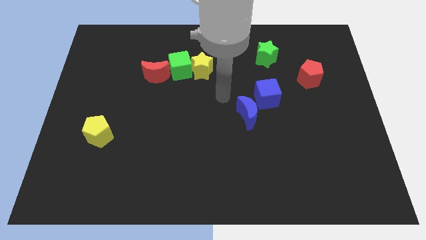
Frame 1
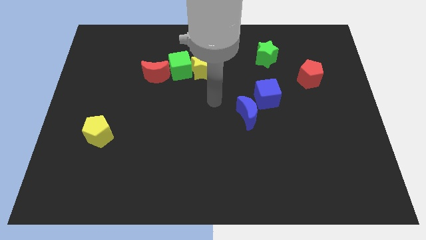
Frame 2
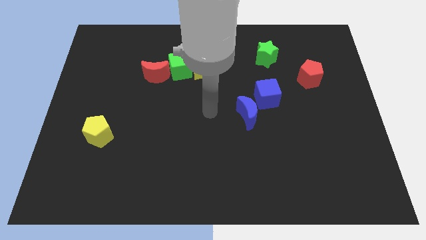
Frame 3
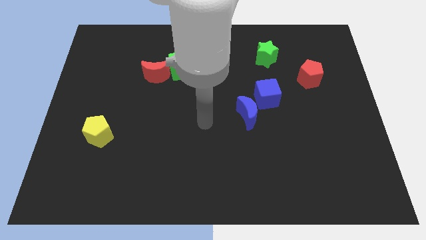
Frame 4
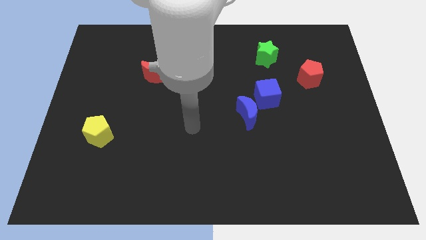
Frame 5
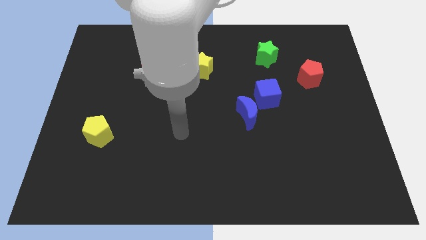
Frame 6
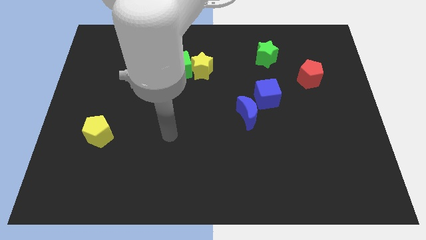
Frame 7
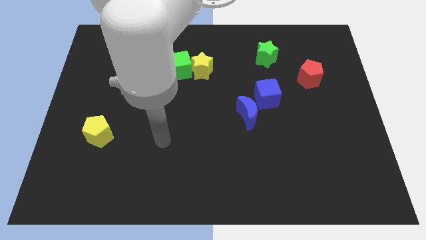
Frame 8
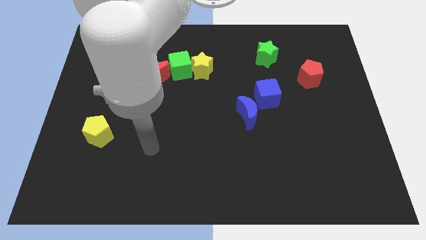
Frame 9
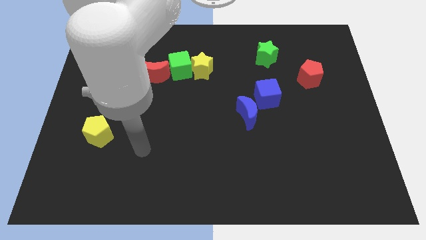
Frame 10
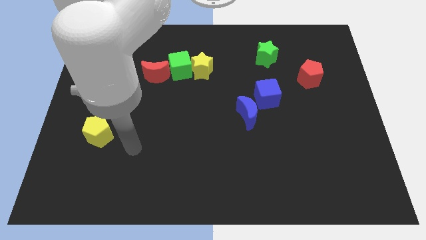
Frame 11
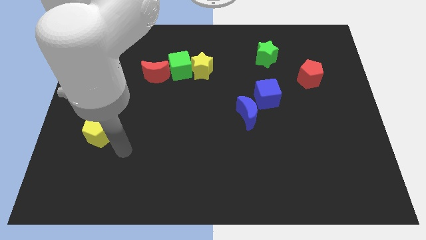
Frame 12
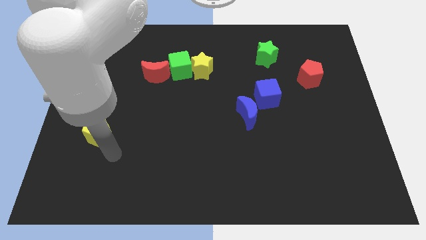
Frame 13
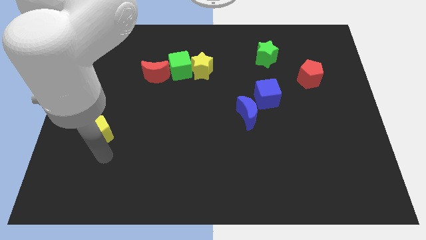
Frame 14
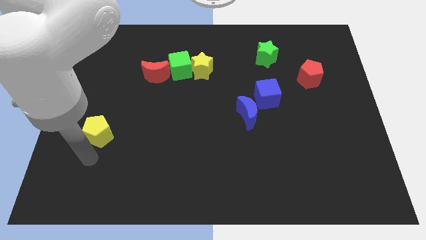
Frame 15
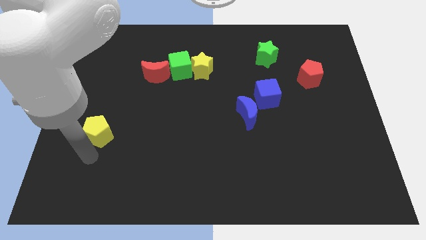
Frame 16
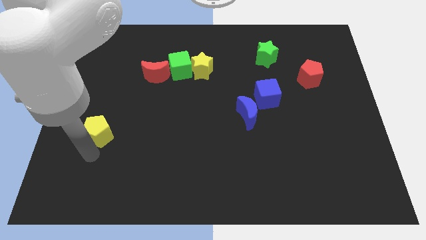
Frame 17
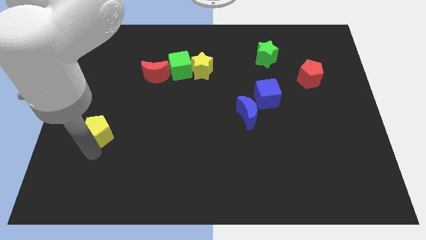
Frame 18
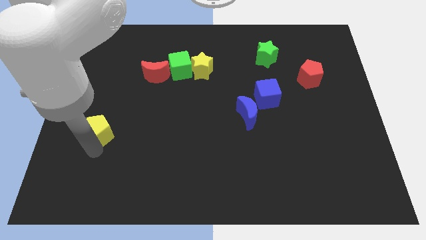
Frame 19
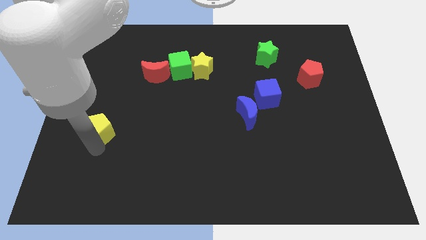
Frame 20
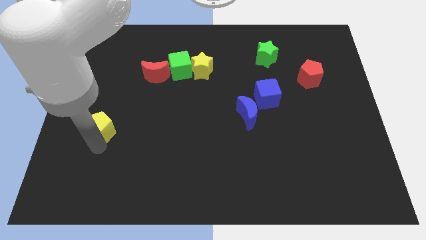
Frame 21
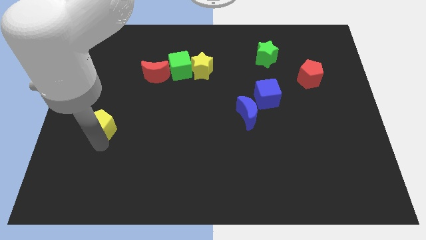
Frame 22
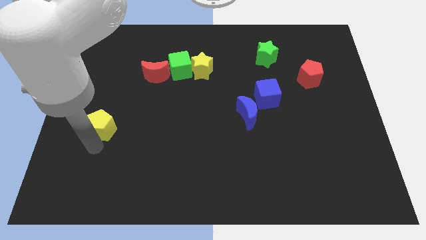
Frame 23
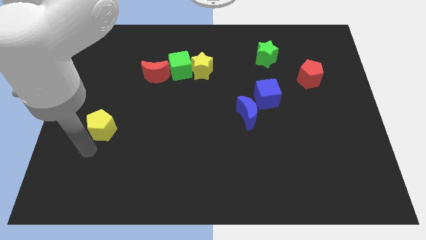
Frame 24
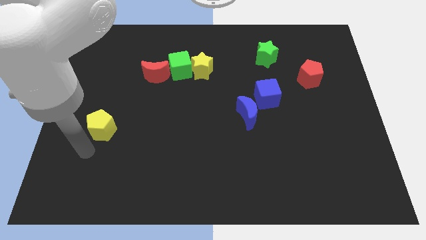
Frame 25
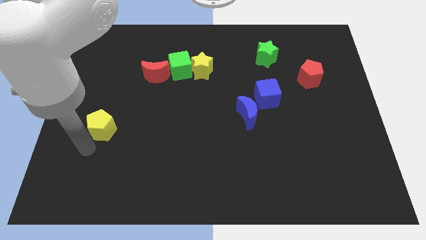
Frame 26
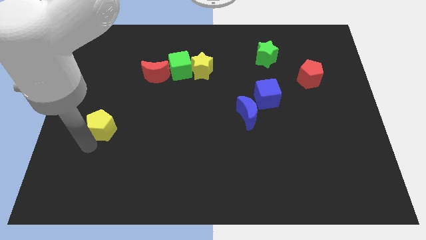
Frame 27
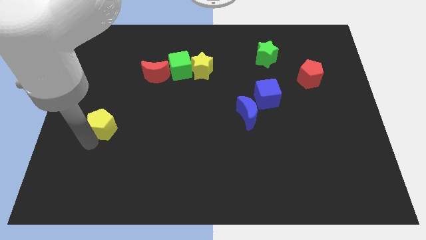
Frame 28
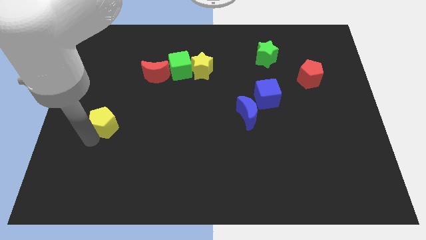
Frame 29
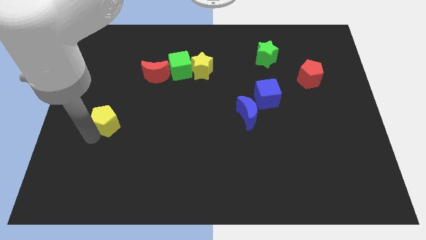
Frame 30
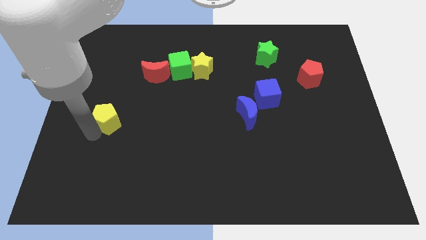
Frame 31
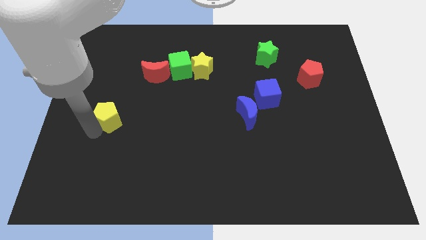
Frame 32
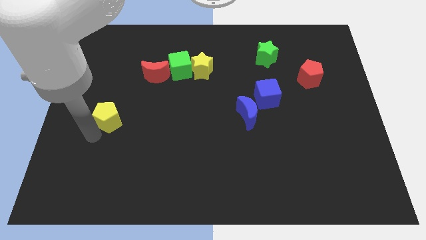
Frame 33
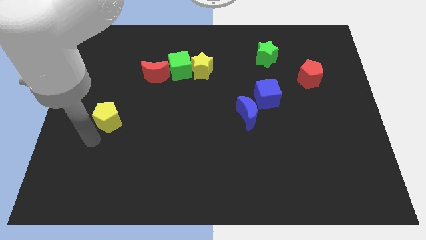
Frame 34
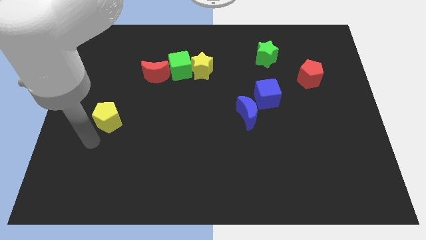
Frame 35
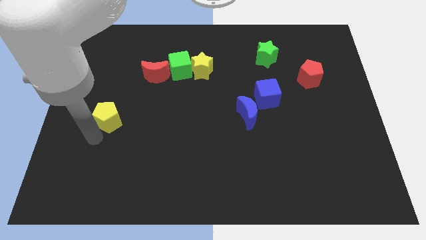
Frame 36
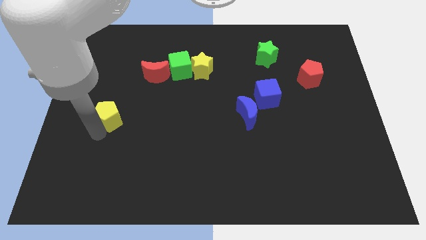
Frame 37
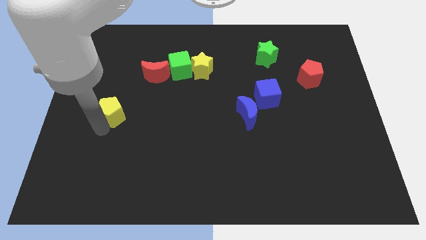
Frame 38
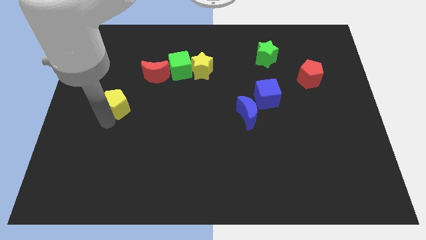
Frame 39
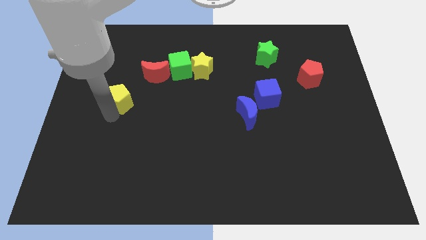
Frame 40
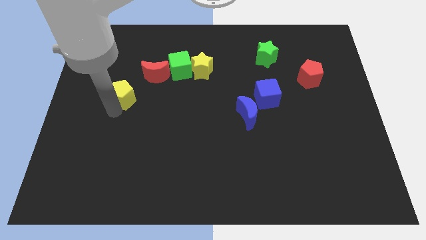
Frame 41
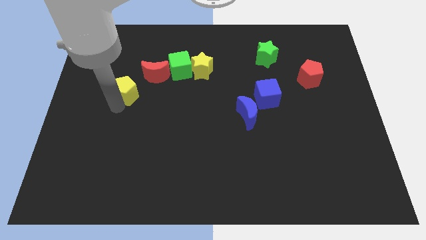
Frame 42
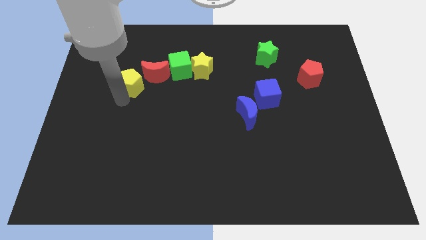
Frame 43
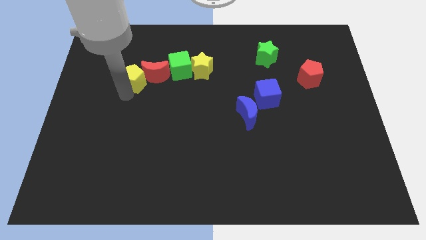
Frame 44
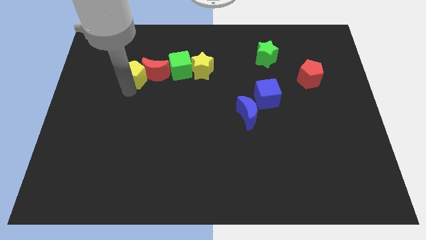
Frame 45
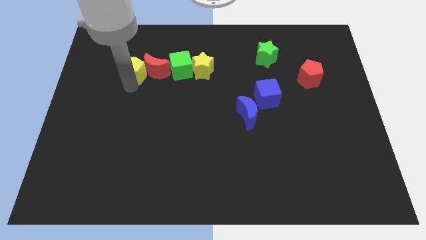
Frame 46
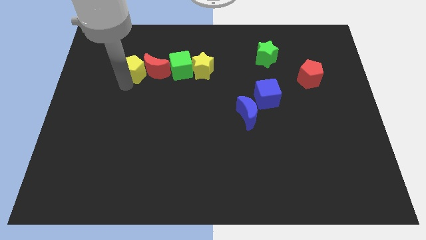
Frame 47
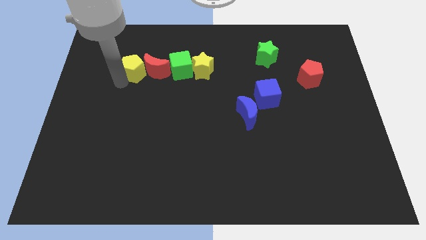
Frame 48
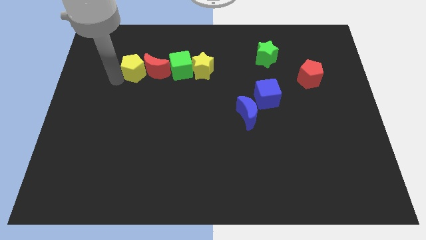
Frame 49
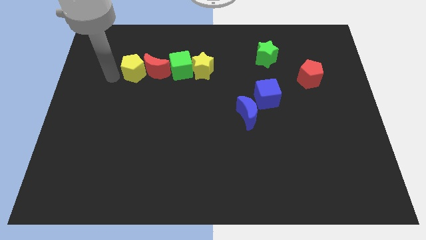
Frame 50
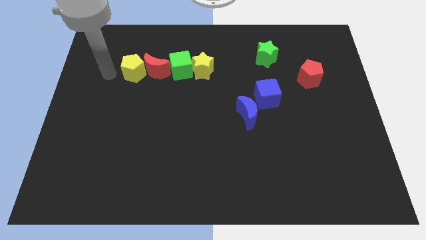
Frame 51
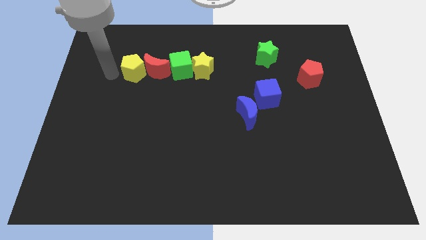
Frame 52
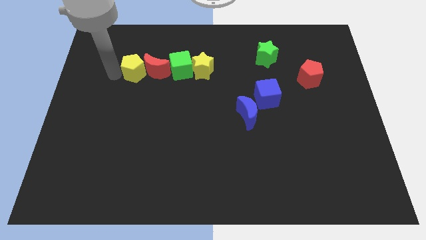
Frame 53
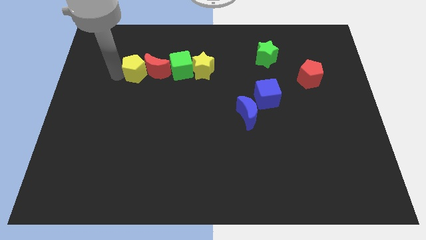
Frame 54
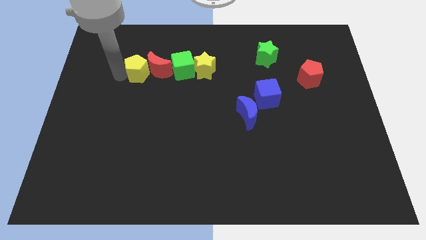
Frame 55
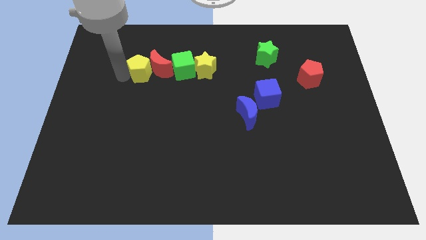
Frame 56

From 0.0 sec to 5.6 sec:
move the yellow pentagon to the left side of the yellow star

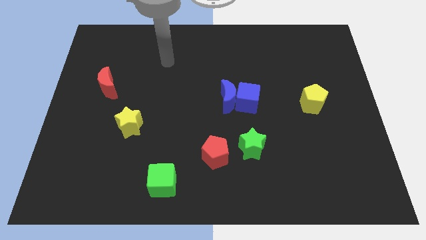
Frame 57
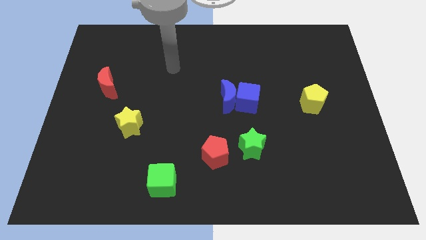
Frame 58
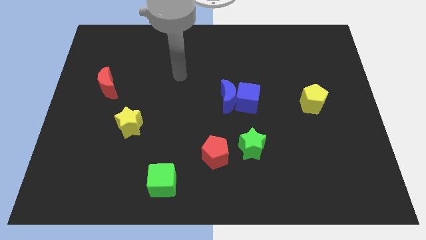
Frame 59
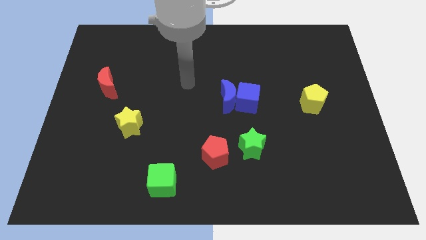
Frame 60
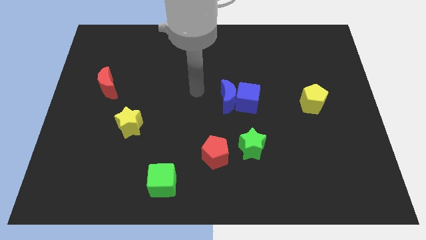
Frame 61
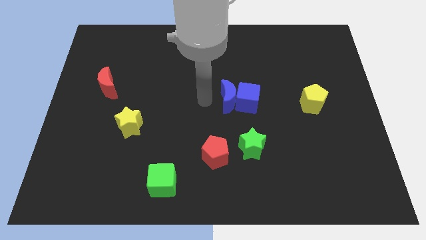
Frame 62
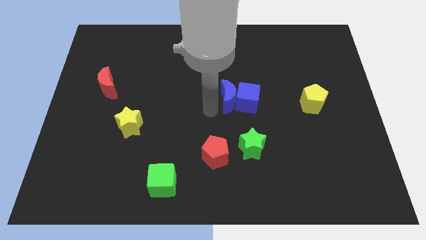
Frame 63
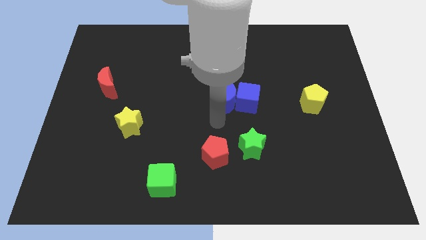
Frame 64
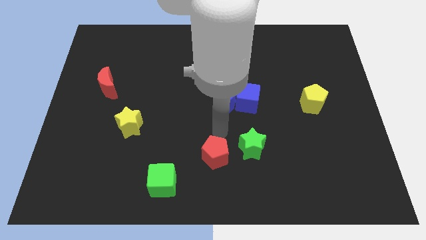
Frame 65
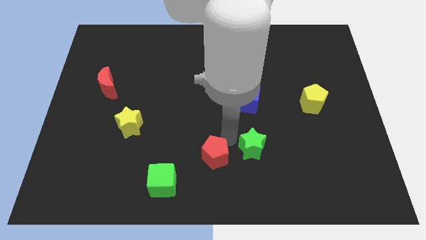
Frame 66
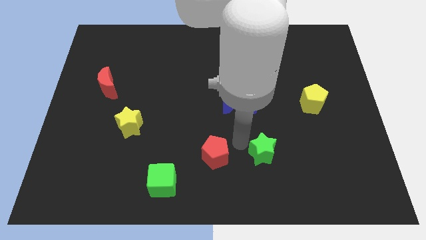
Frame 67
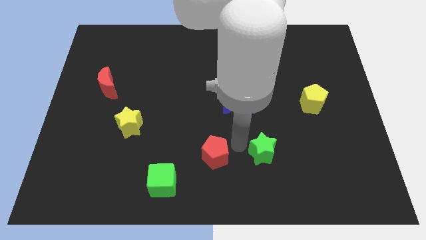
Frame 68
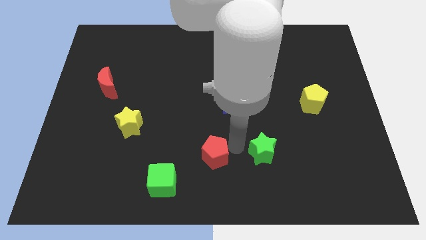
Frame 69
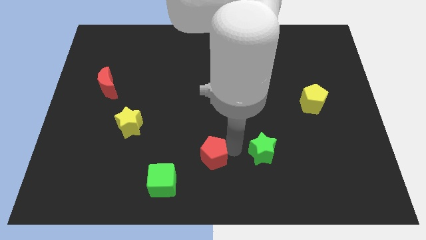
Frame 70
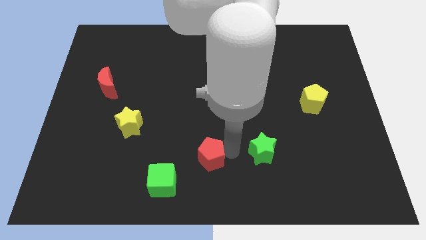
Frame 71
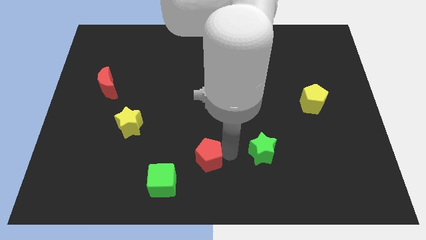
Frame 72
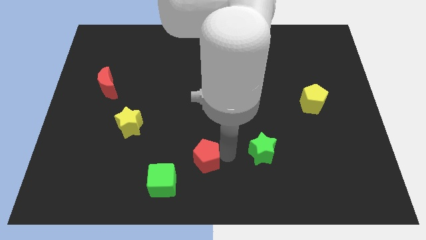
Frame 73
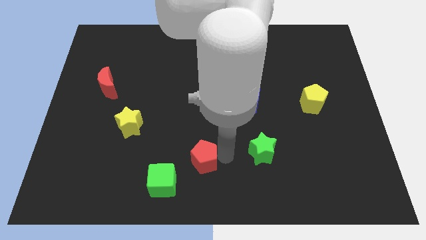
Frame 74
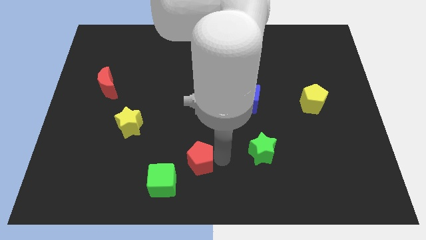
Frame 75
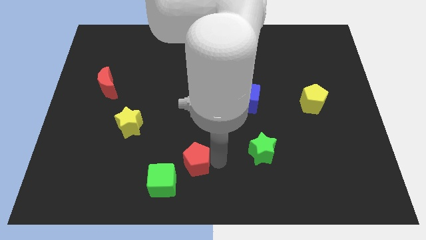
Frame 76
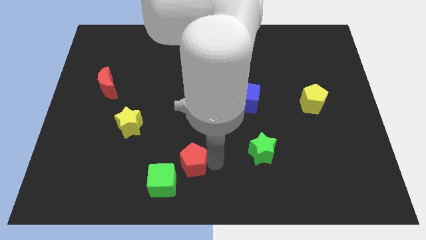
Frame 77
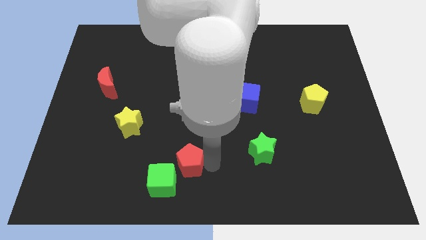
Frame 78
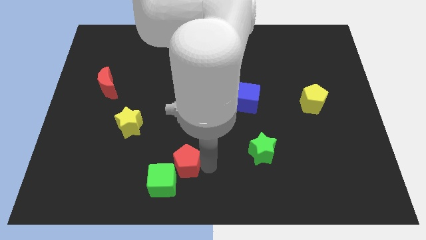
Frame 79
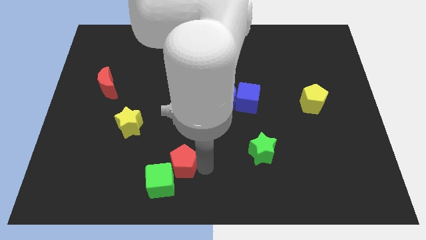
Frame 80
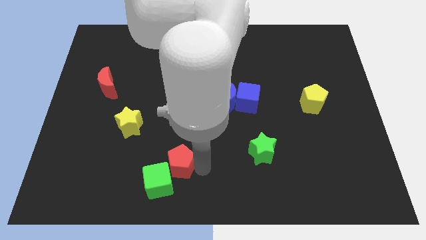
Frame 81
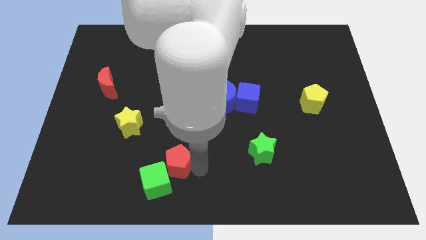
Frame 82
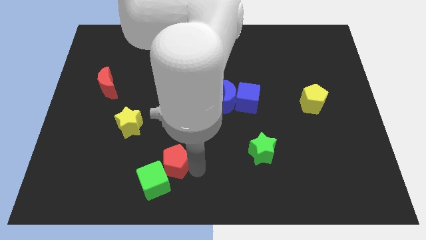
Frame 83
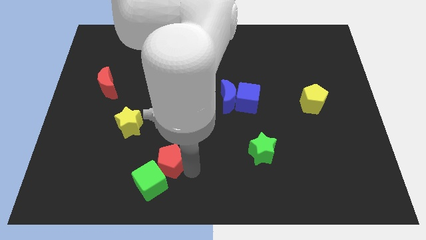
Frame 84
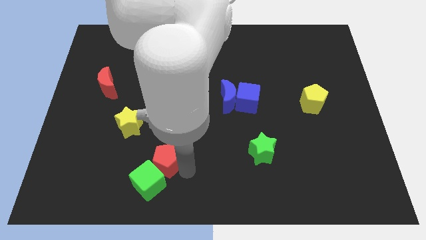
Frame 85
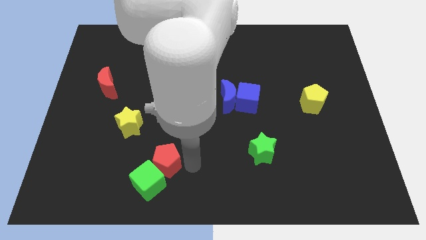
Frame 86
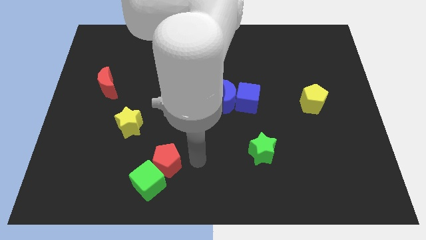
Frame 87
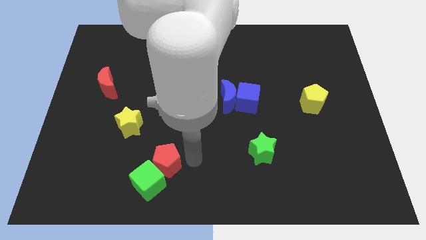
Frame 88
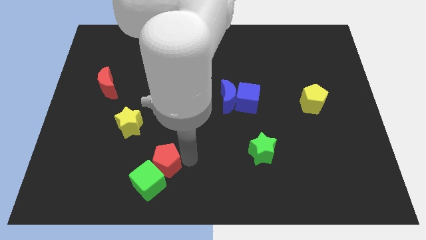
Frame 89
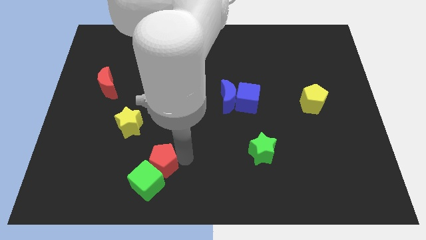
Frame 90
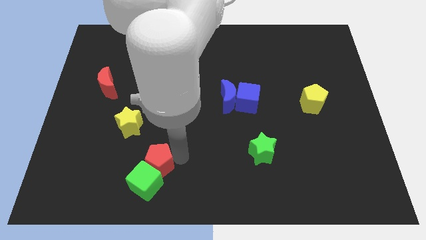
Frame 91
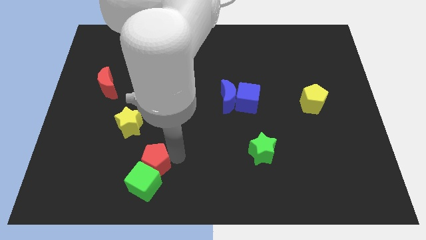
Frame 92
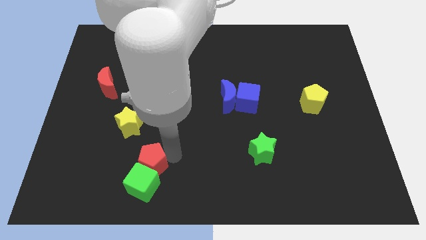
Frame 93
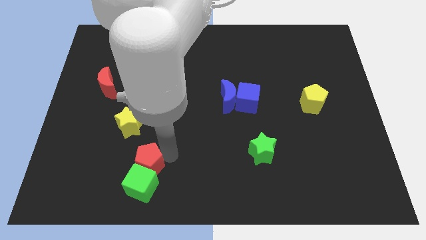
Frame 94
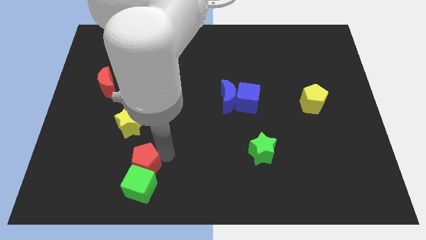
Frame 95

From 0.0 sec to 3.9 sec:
move the red pentagon to the bottom side of the yellow star
